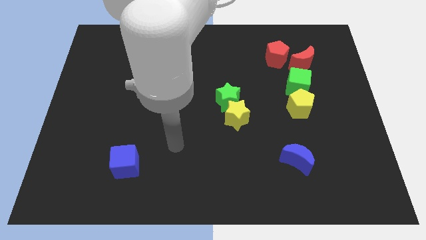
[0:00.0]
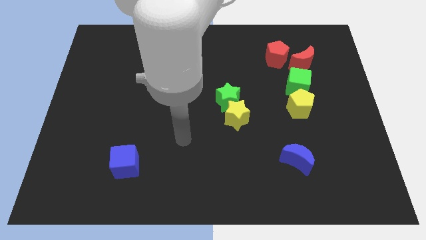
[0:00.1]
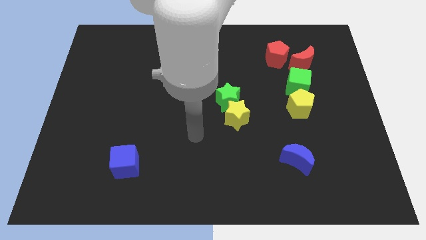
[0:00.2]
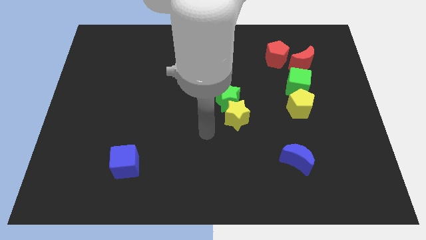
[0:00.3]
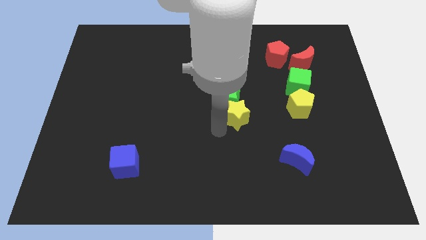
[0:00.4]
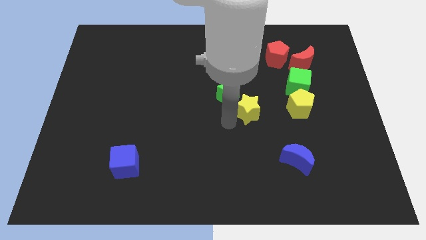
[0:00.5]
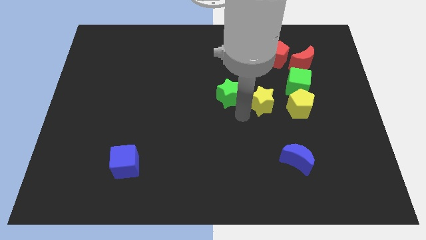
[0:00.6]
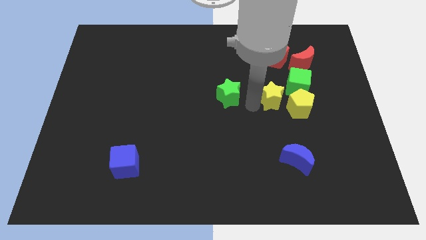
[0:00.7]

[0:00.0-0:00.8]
separate the green star from the yellow star

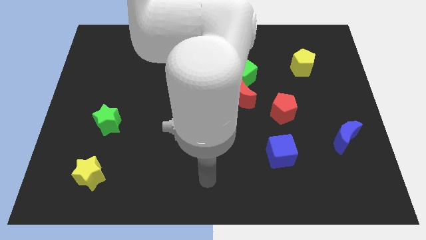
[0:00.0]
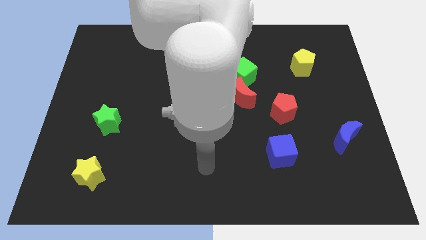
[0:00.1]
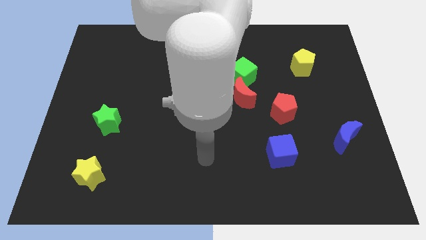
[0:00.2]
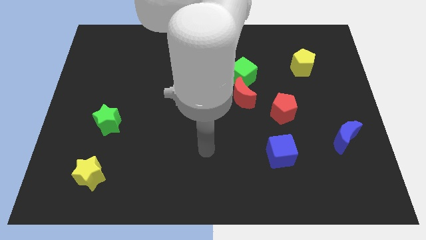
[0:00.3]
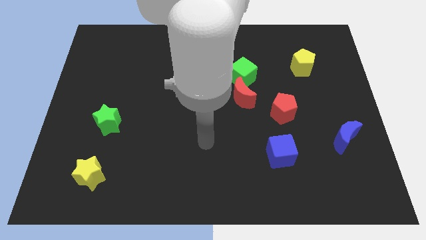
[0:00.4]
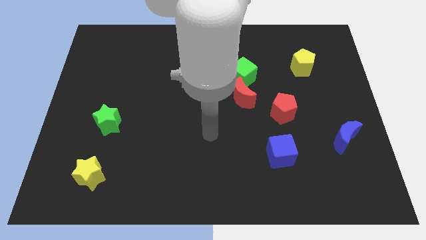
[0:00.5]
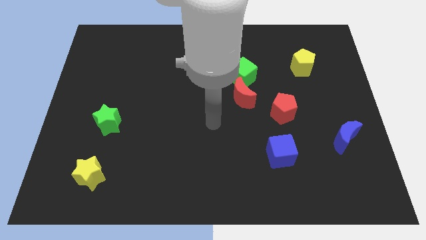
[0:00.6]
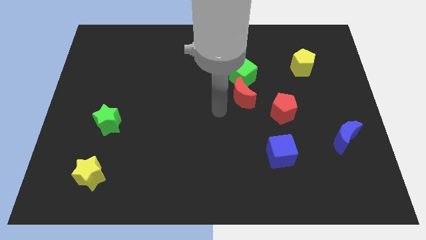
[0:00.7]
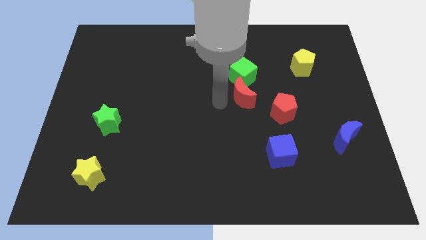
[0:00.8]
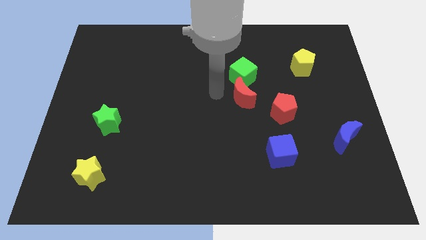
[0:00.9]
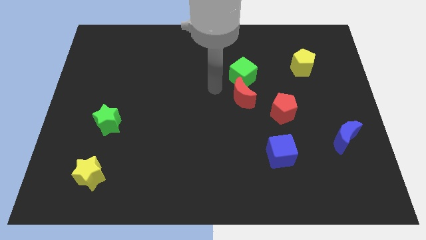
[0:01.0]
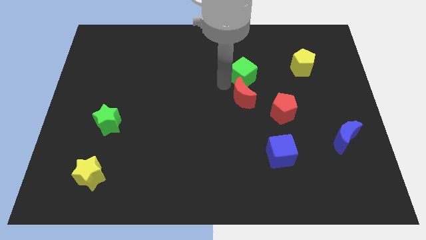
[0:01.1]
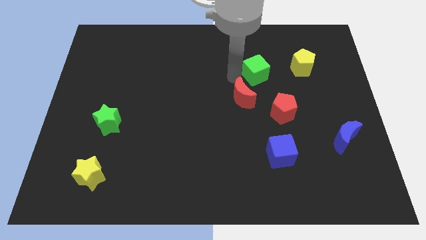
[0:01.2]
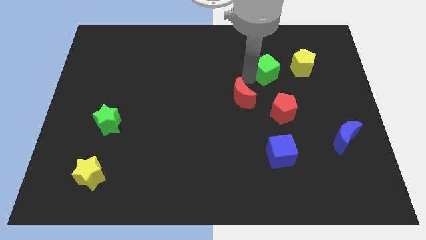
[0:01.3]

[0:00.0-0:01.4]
separate the red moon from the green cube

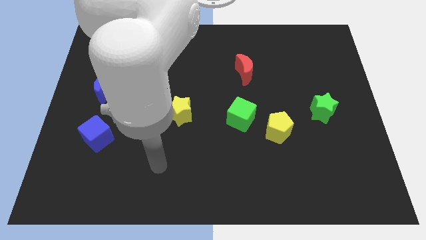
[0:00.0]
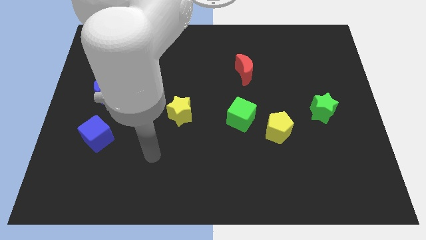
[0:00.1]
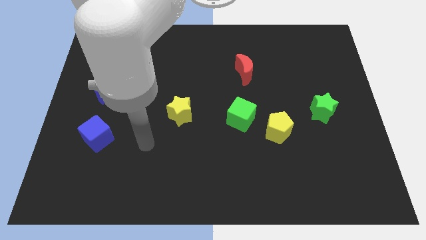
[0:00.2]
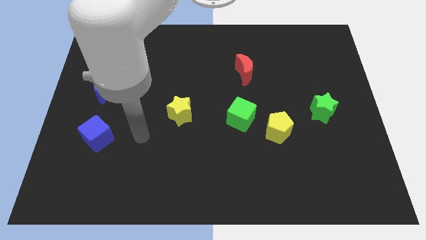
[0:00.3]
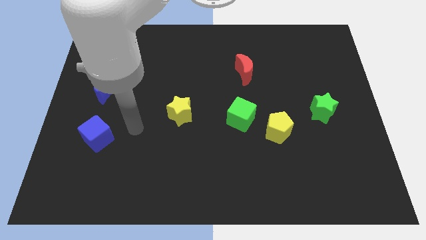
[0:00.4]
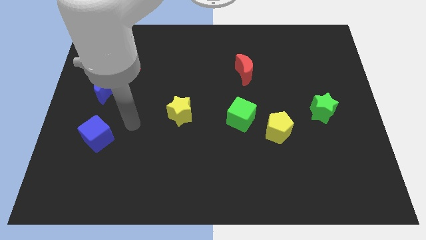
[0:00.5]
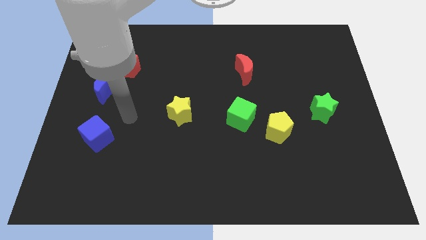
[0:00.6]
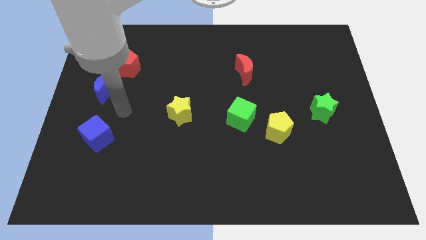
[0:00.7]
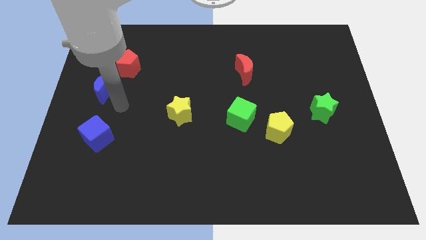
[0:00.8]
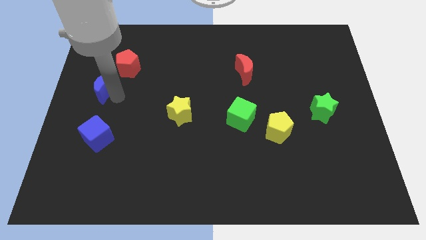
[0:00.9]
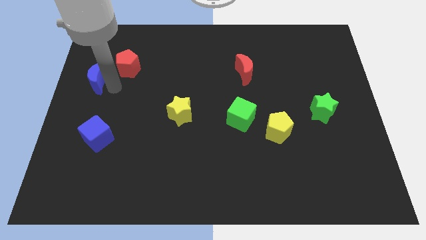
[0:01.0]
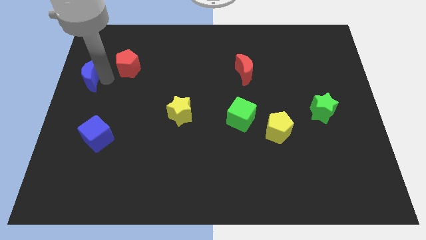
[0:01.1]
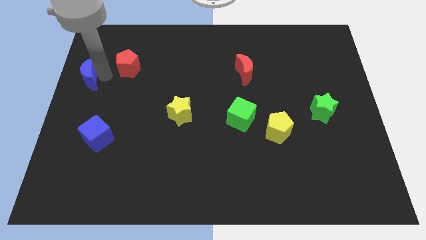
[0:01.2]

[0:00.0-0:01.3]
pull the red pentagon apart from the blue moon

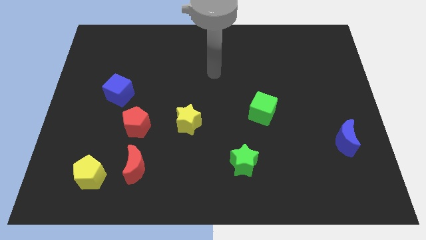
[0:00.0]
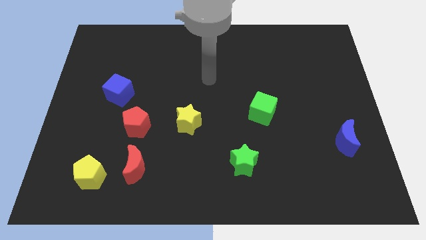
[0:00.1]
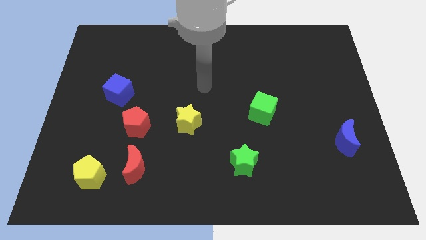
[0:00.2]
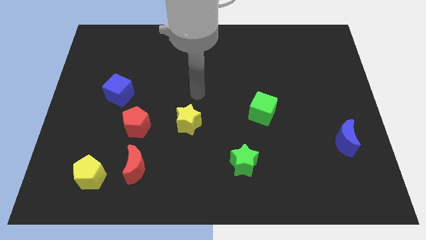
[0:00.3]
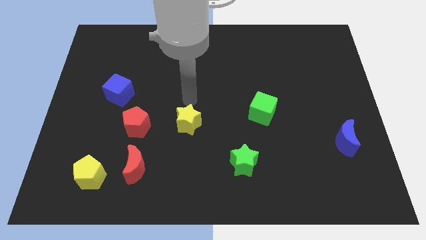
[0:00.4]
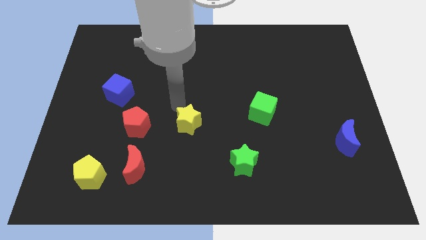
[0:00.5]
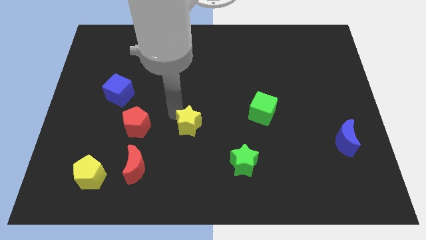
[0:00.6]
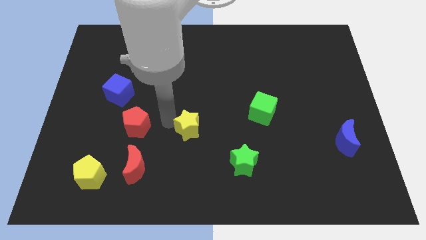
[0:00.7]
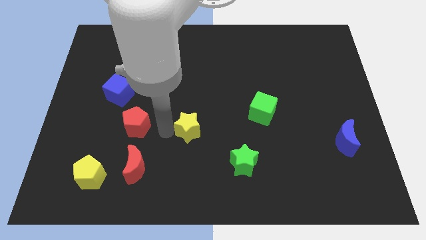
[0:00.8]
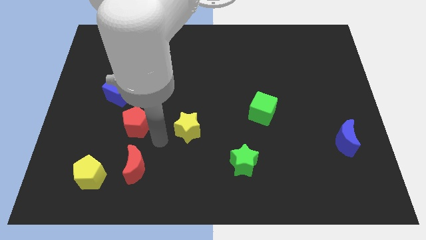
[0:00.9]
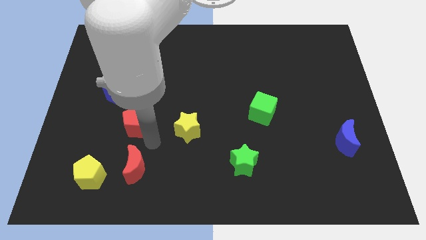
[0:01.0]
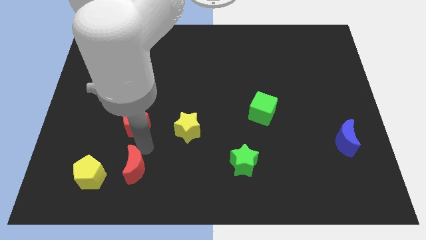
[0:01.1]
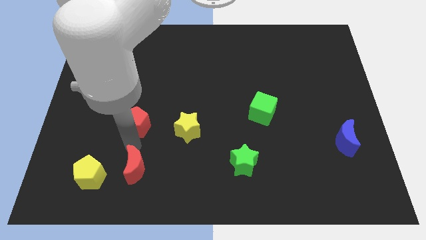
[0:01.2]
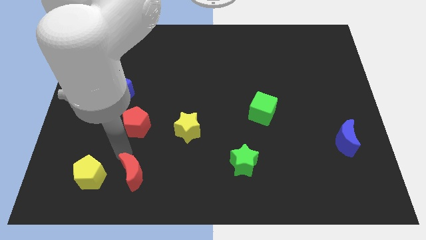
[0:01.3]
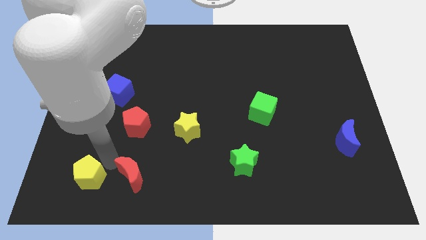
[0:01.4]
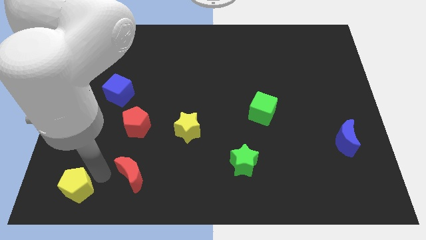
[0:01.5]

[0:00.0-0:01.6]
pull the red moon apart from the yellow pentagon

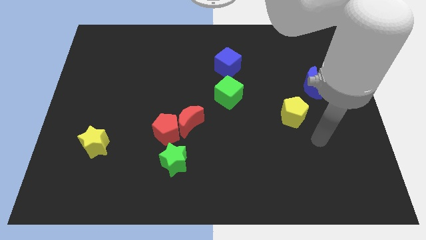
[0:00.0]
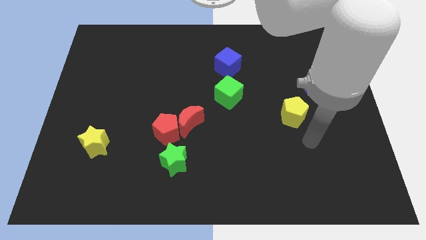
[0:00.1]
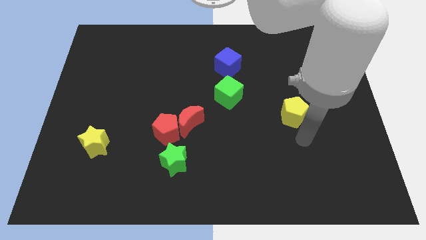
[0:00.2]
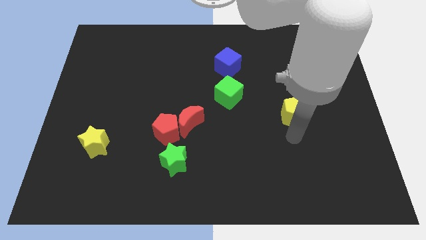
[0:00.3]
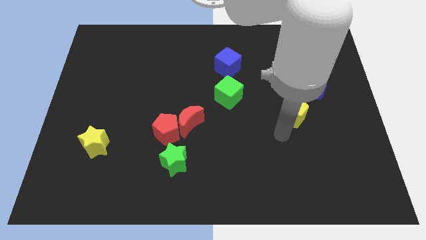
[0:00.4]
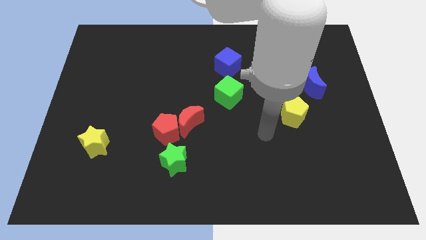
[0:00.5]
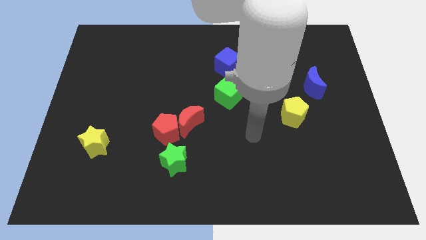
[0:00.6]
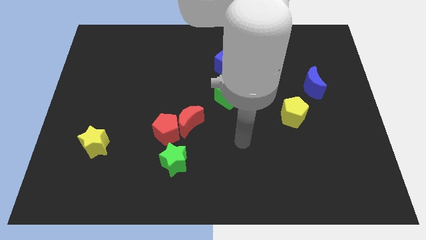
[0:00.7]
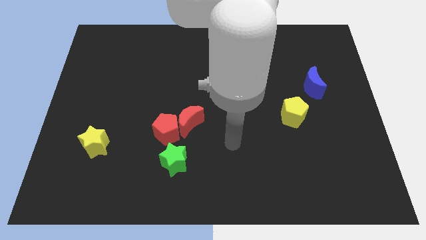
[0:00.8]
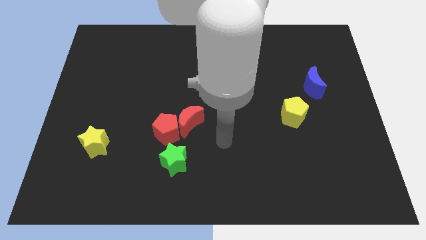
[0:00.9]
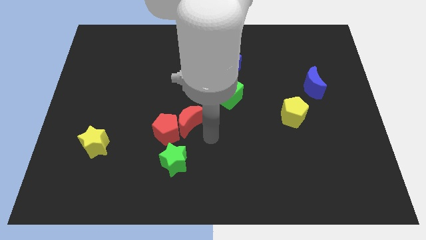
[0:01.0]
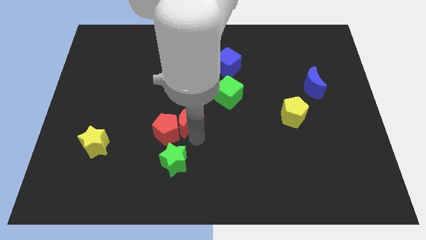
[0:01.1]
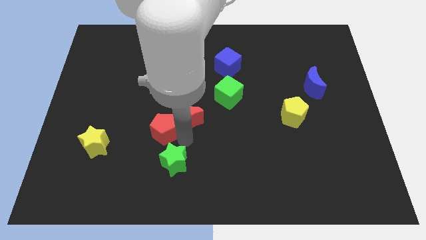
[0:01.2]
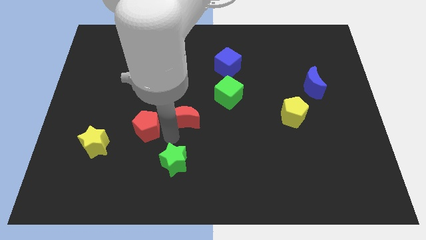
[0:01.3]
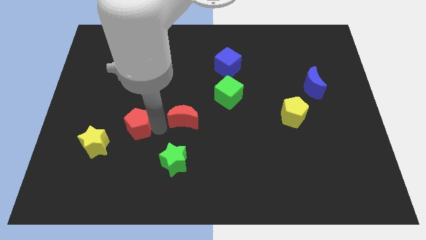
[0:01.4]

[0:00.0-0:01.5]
move the red moon away from the red pentagon

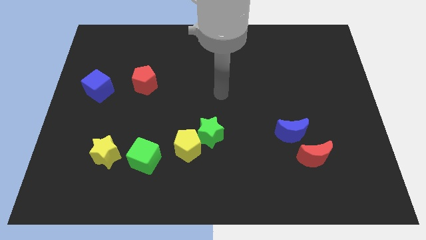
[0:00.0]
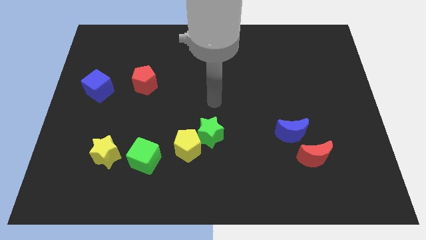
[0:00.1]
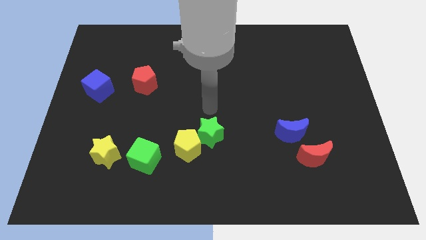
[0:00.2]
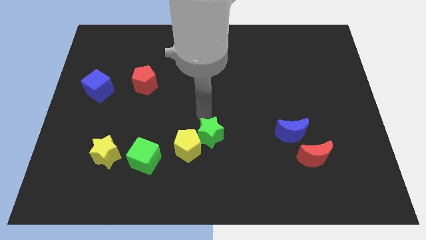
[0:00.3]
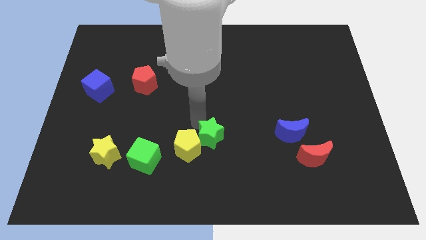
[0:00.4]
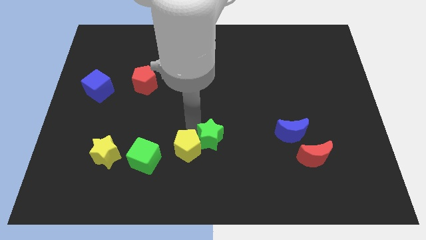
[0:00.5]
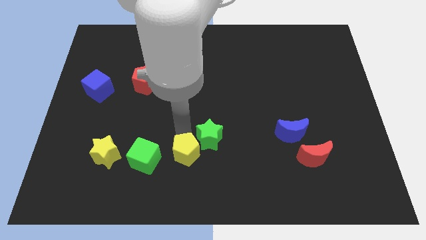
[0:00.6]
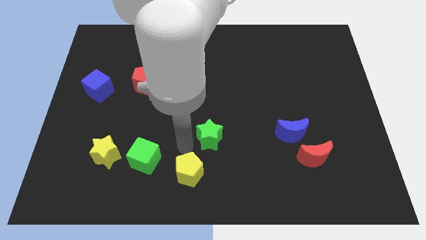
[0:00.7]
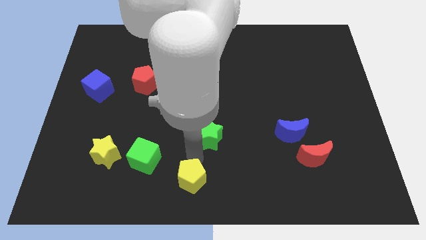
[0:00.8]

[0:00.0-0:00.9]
pull the green star apart from the yellow pentagon

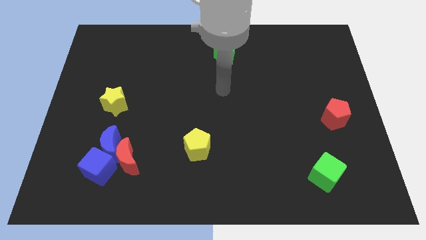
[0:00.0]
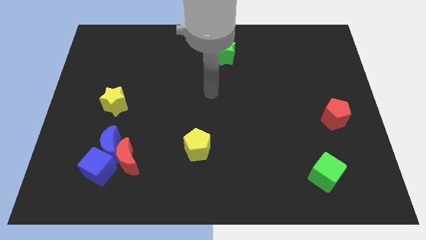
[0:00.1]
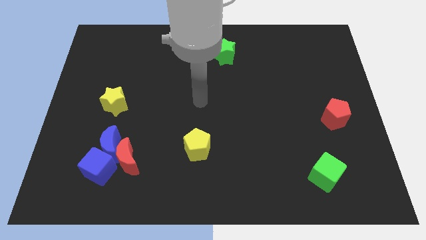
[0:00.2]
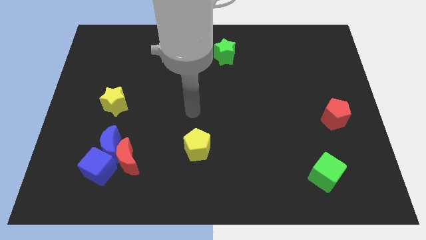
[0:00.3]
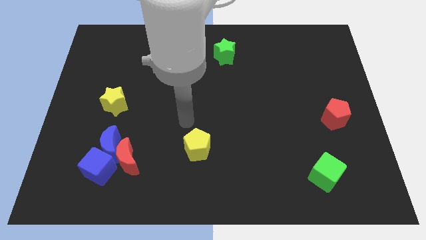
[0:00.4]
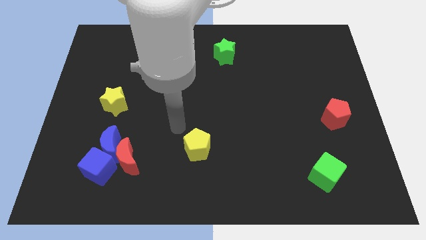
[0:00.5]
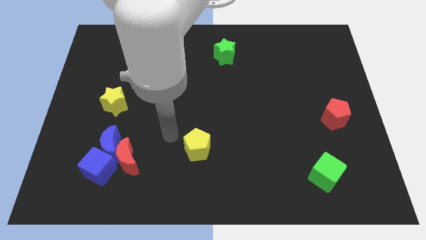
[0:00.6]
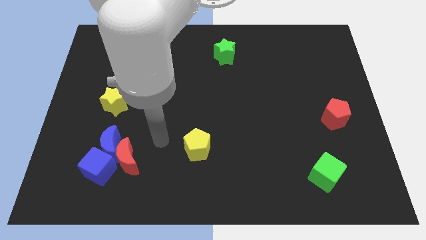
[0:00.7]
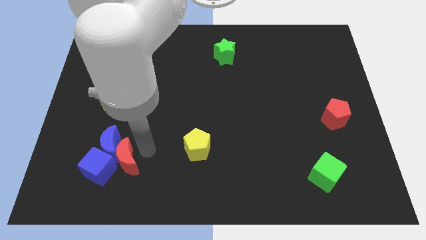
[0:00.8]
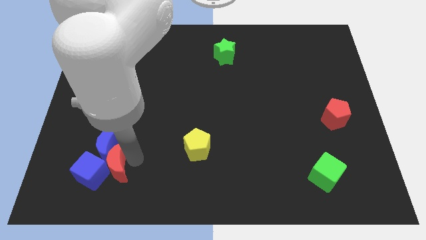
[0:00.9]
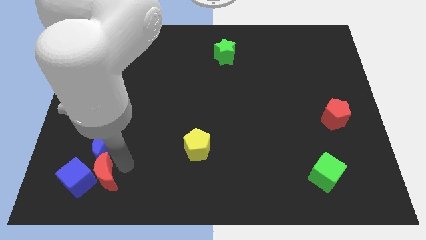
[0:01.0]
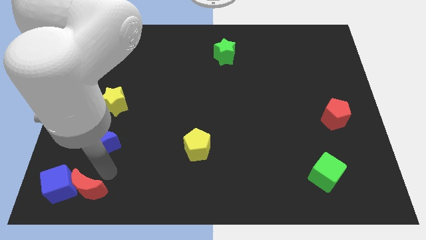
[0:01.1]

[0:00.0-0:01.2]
move the blue moon away from the red moon and blue cube

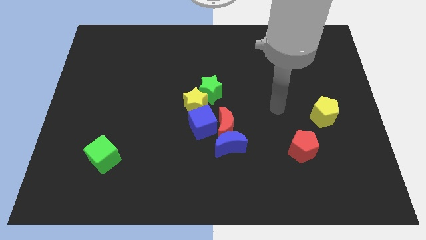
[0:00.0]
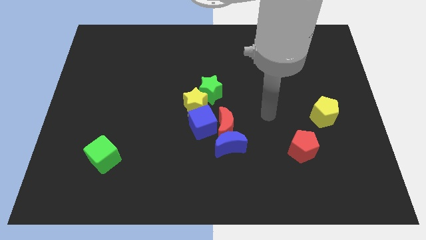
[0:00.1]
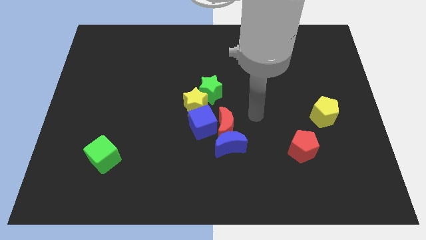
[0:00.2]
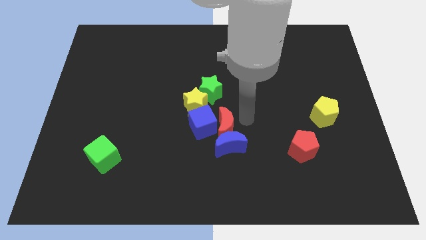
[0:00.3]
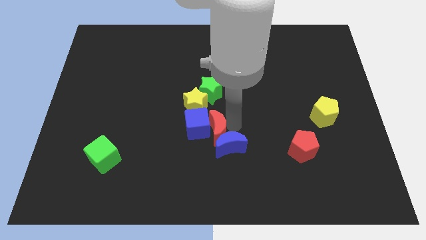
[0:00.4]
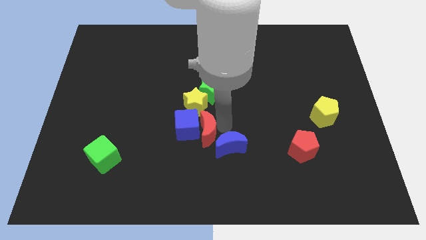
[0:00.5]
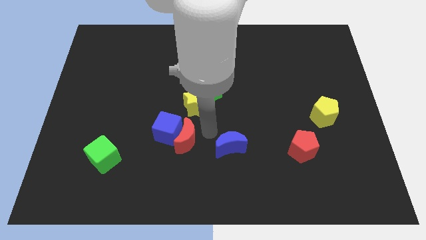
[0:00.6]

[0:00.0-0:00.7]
separate the blue moon from the red moon and blue cube
